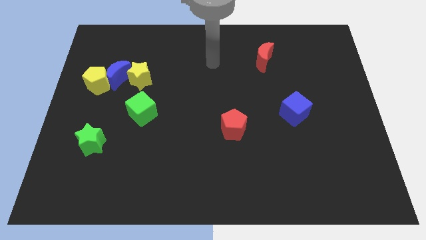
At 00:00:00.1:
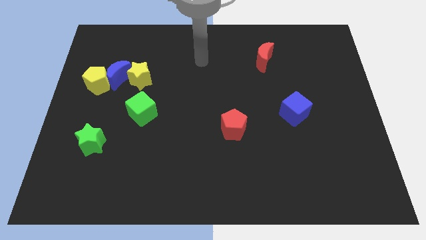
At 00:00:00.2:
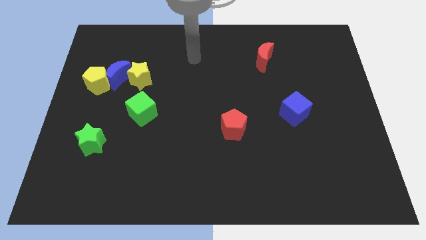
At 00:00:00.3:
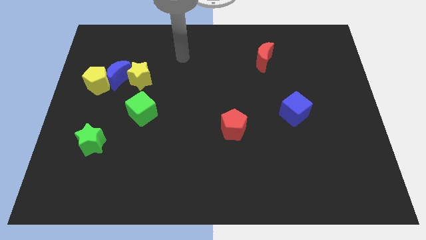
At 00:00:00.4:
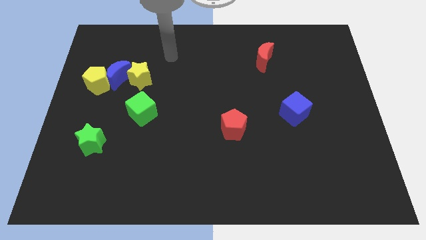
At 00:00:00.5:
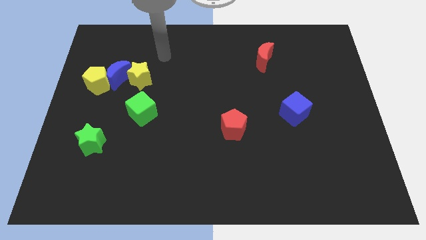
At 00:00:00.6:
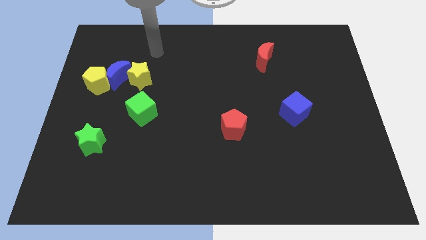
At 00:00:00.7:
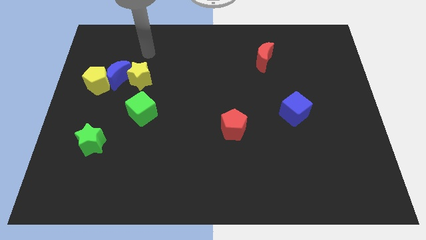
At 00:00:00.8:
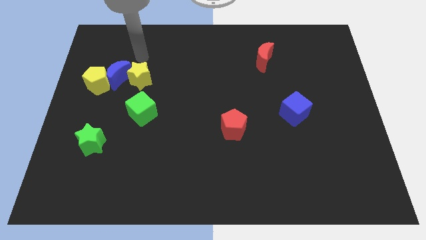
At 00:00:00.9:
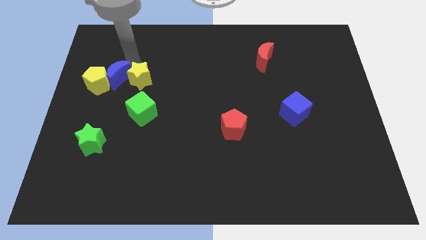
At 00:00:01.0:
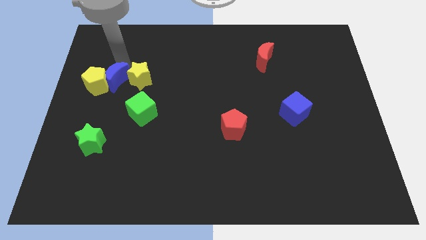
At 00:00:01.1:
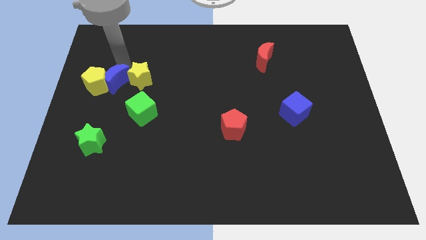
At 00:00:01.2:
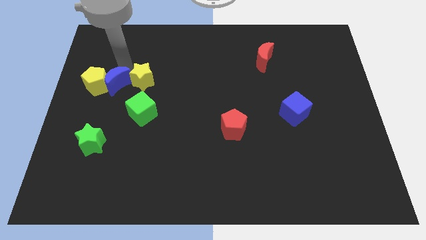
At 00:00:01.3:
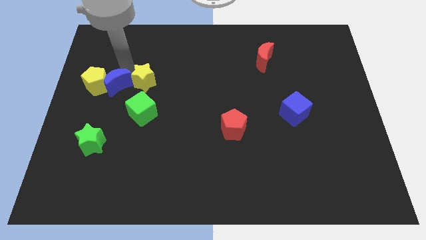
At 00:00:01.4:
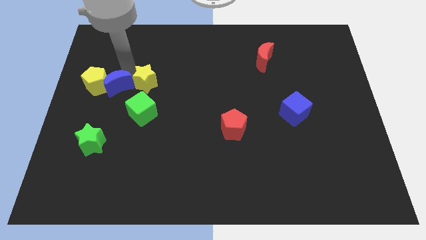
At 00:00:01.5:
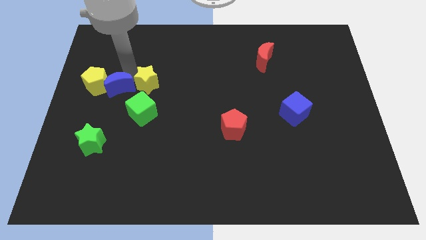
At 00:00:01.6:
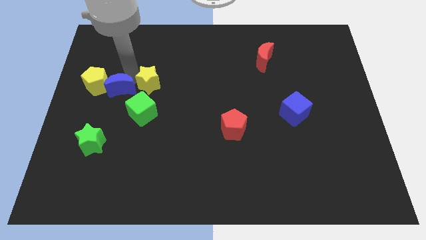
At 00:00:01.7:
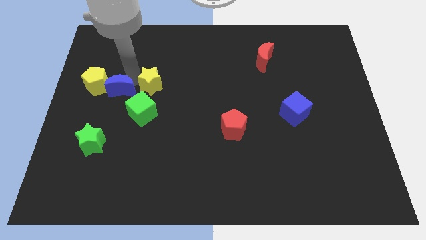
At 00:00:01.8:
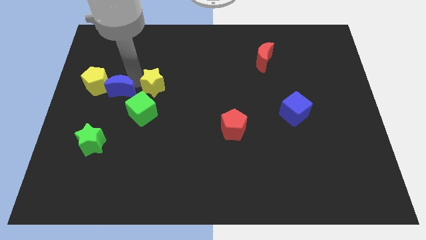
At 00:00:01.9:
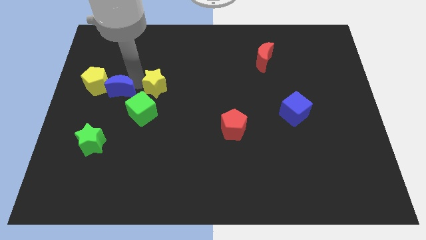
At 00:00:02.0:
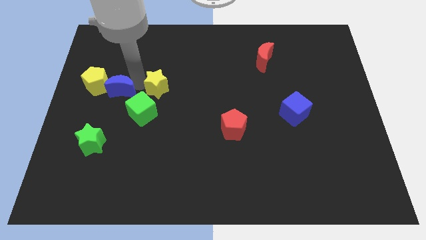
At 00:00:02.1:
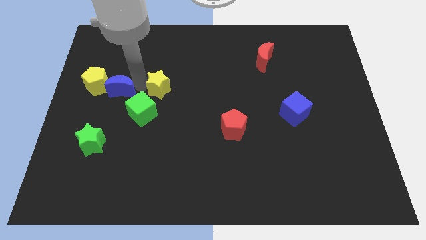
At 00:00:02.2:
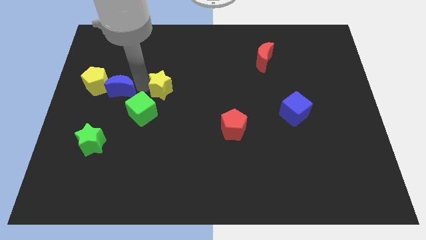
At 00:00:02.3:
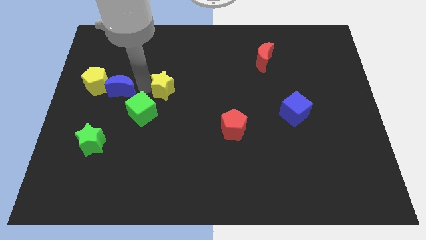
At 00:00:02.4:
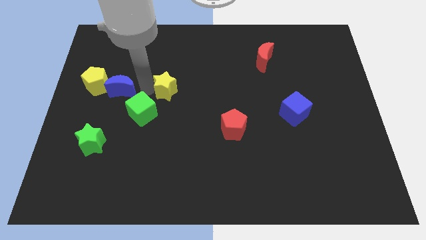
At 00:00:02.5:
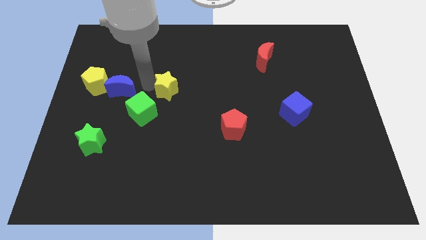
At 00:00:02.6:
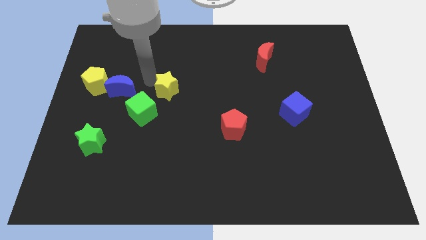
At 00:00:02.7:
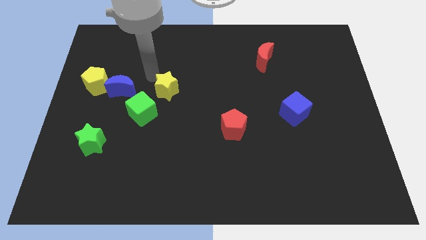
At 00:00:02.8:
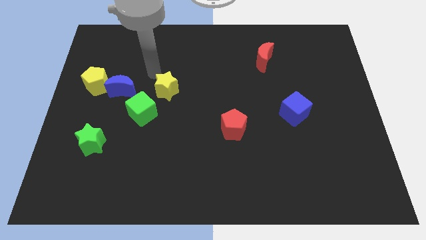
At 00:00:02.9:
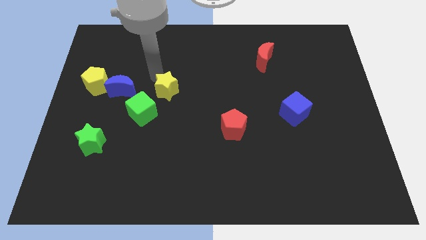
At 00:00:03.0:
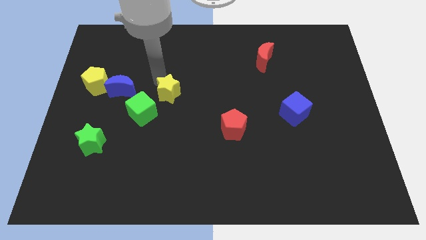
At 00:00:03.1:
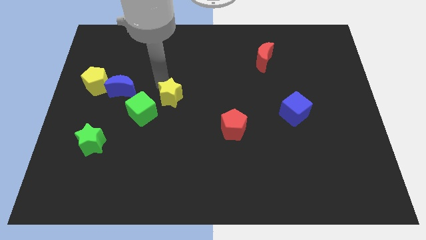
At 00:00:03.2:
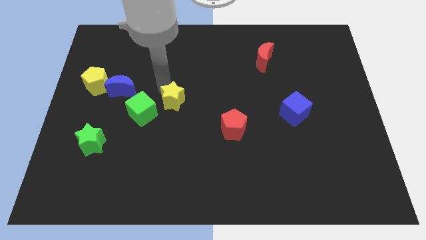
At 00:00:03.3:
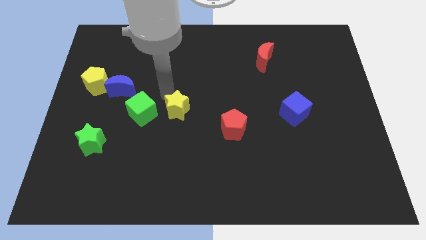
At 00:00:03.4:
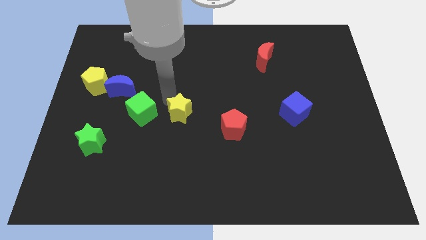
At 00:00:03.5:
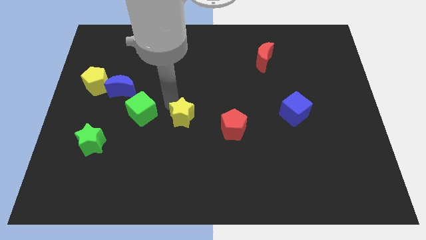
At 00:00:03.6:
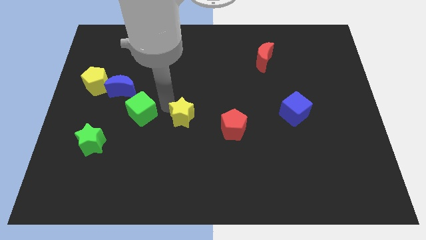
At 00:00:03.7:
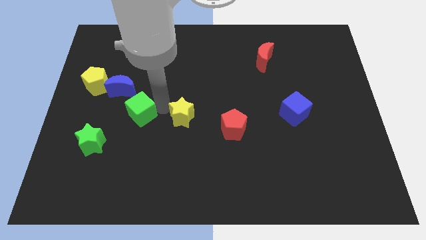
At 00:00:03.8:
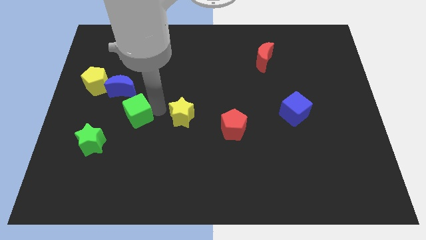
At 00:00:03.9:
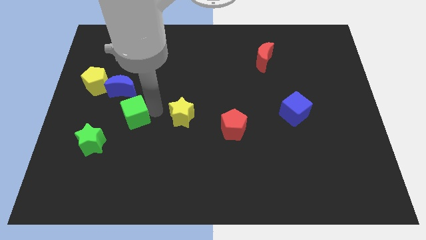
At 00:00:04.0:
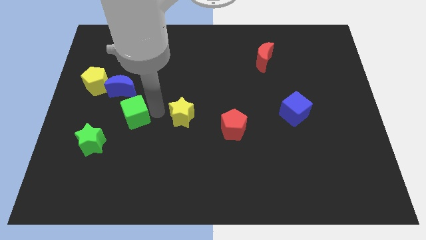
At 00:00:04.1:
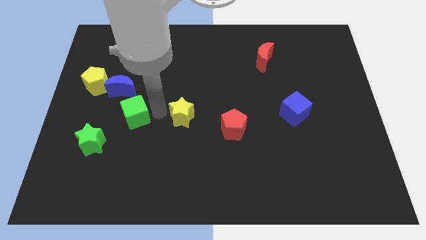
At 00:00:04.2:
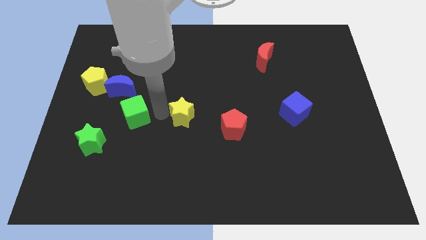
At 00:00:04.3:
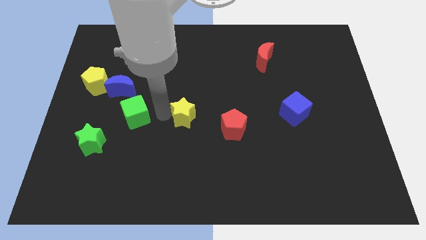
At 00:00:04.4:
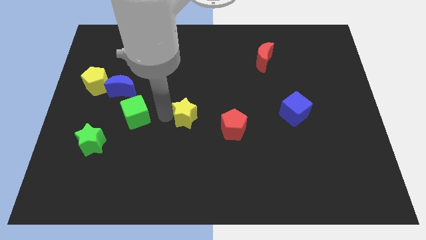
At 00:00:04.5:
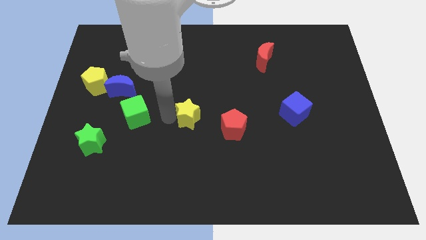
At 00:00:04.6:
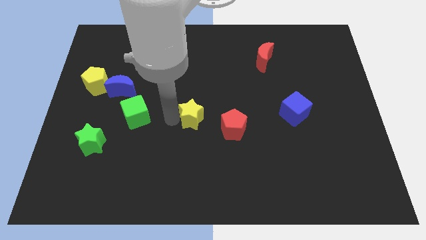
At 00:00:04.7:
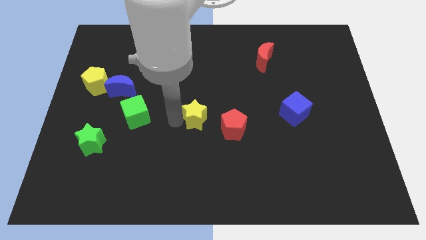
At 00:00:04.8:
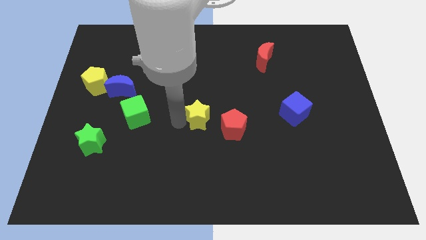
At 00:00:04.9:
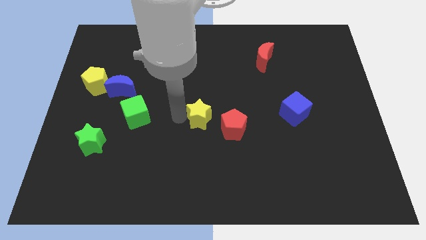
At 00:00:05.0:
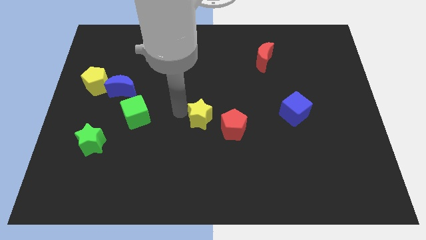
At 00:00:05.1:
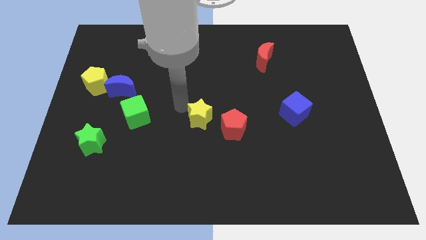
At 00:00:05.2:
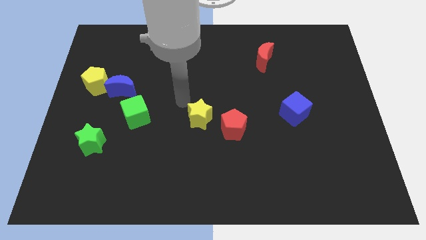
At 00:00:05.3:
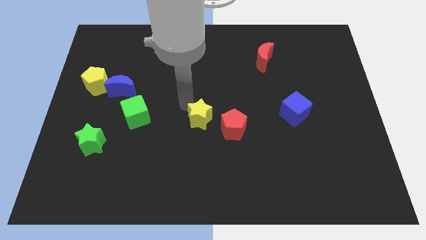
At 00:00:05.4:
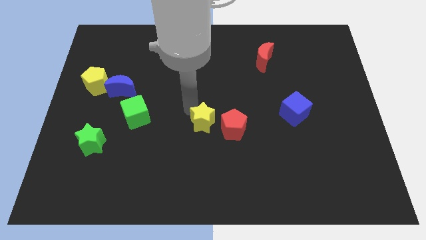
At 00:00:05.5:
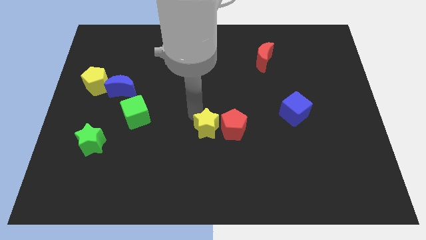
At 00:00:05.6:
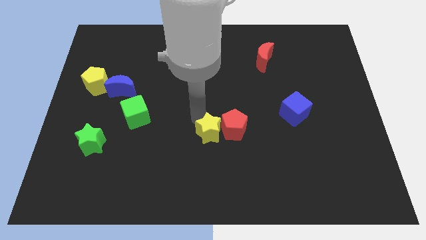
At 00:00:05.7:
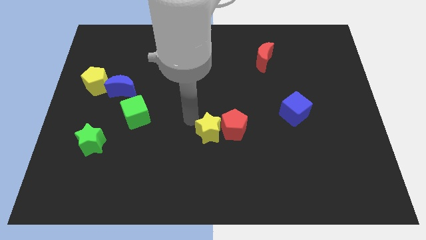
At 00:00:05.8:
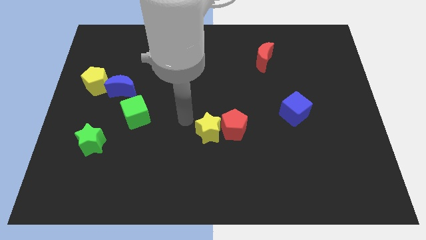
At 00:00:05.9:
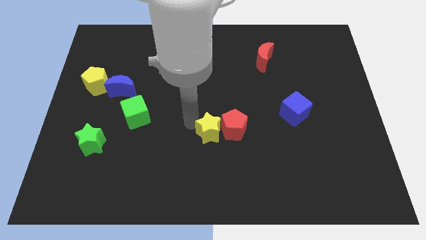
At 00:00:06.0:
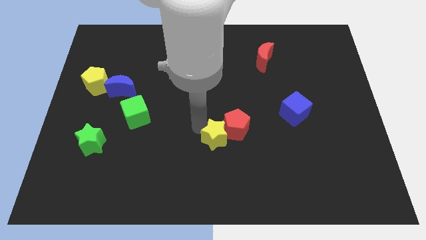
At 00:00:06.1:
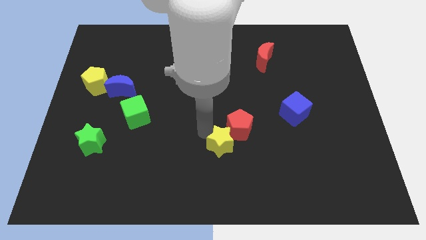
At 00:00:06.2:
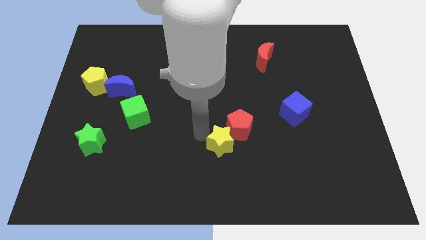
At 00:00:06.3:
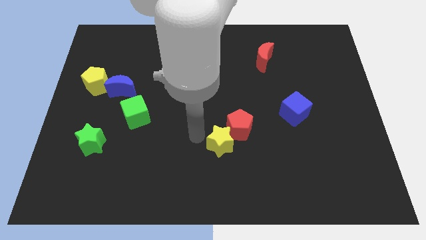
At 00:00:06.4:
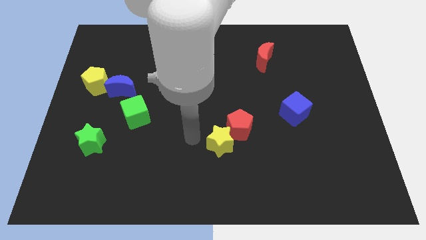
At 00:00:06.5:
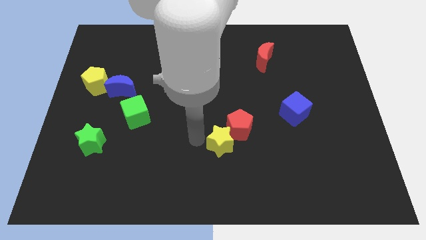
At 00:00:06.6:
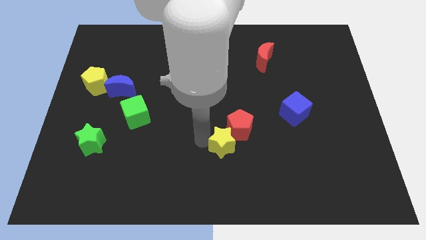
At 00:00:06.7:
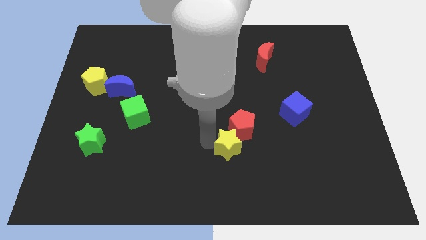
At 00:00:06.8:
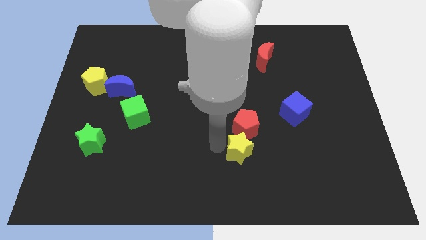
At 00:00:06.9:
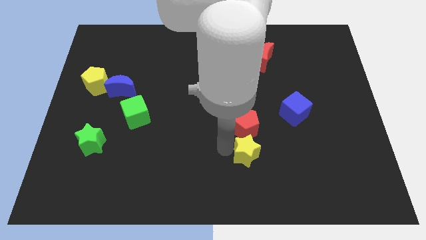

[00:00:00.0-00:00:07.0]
move the yellow star diagonally down and to the right of the red pentagon

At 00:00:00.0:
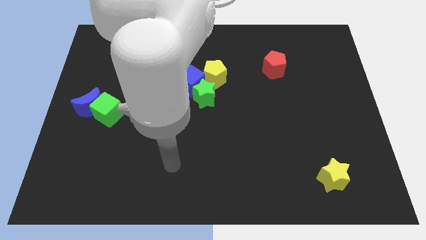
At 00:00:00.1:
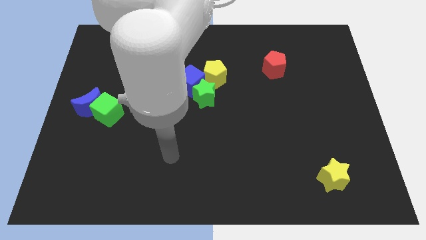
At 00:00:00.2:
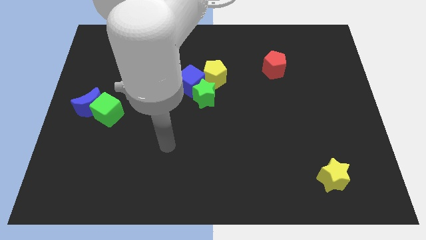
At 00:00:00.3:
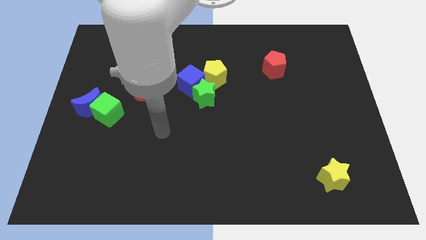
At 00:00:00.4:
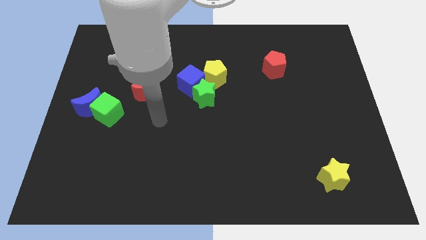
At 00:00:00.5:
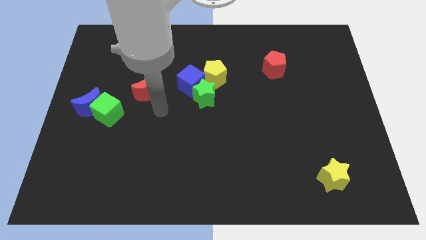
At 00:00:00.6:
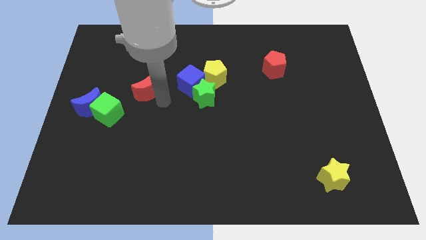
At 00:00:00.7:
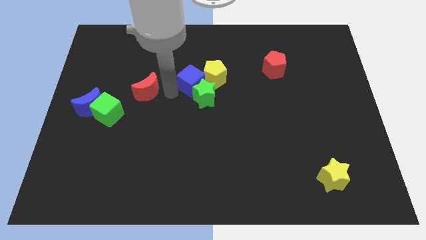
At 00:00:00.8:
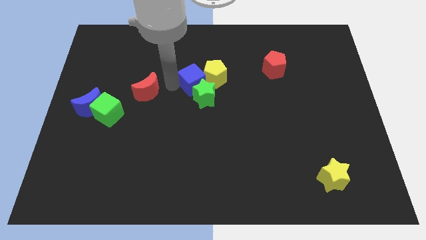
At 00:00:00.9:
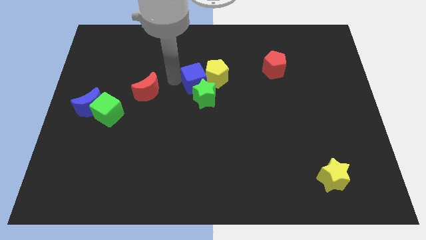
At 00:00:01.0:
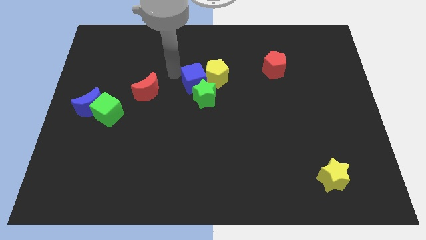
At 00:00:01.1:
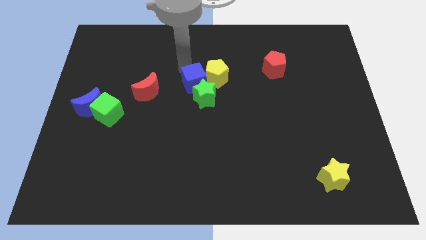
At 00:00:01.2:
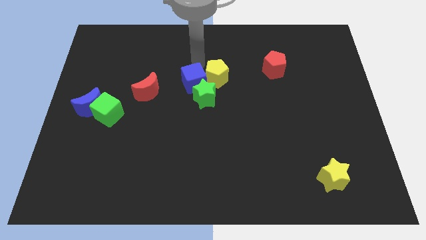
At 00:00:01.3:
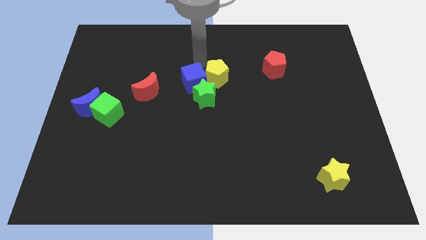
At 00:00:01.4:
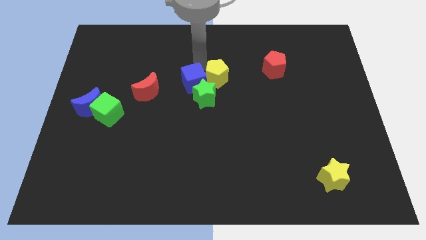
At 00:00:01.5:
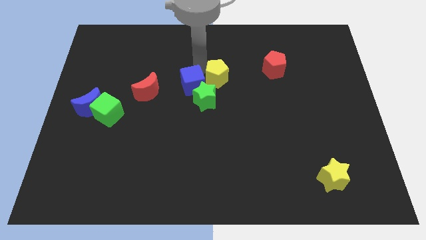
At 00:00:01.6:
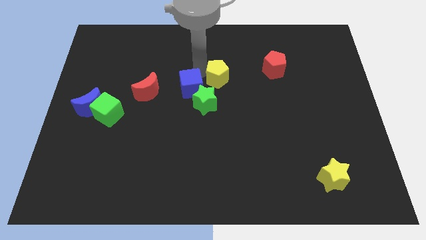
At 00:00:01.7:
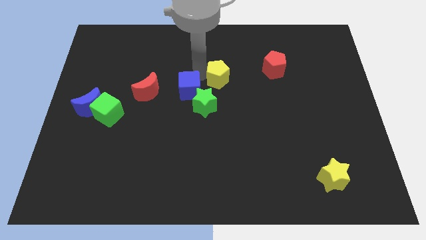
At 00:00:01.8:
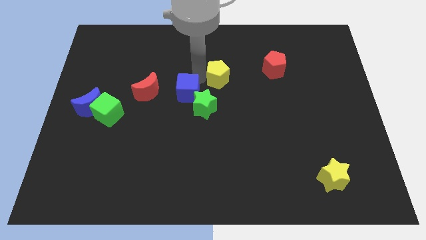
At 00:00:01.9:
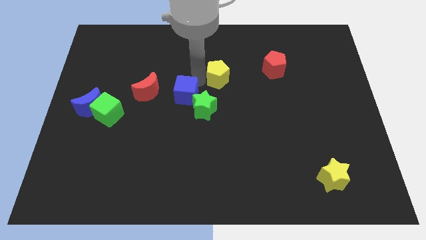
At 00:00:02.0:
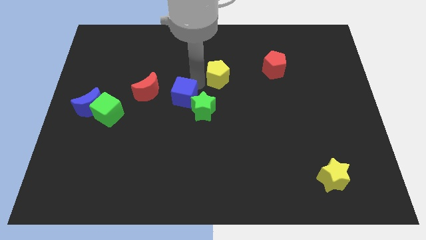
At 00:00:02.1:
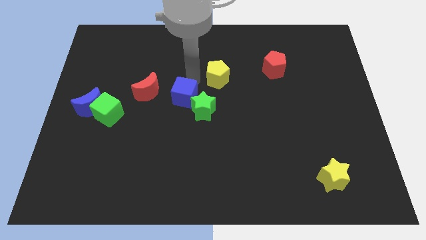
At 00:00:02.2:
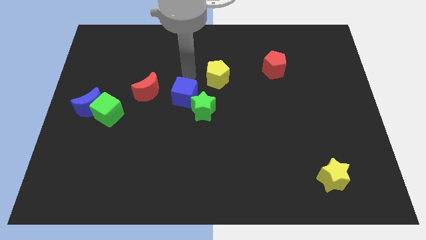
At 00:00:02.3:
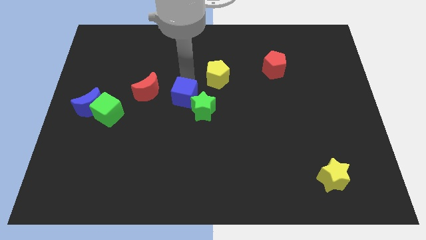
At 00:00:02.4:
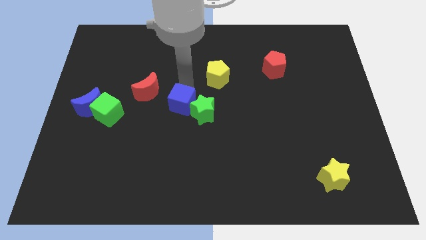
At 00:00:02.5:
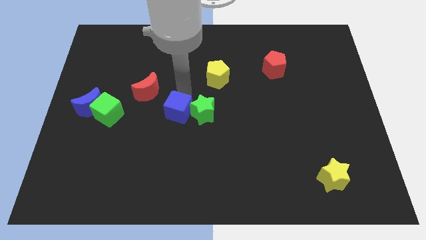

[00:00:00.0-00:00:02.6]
slide the blue cube diagonally down and to the left of the green star
